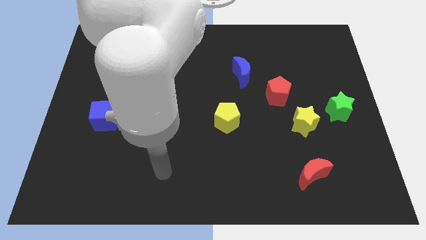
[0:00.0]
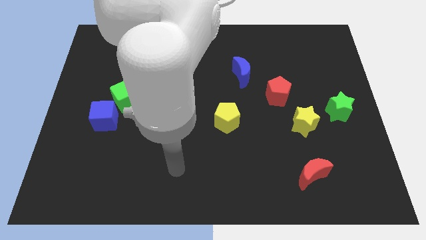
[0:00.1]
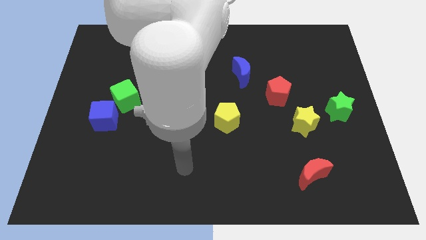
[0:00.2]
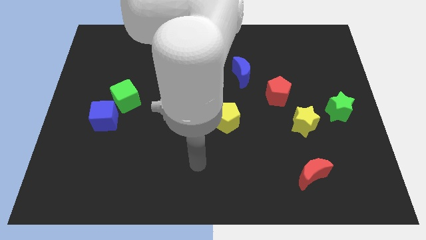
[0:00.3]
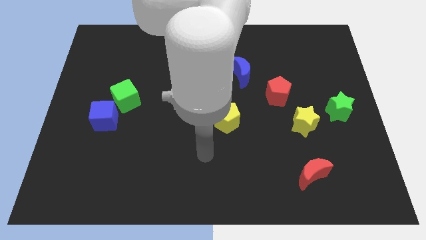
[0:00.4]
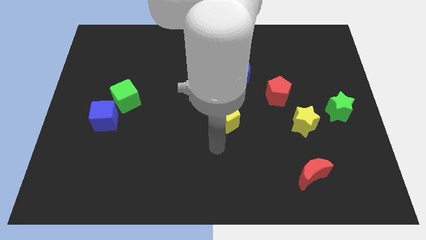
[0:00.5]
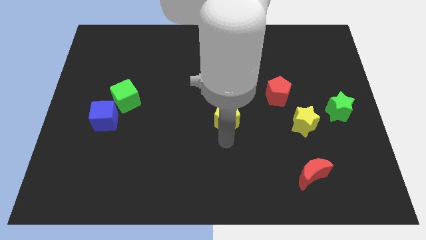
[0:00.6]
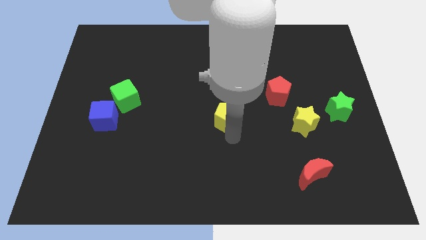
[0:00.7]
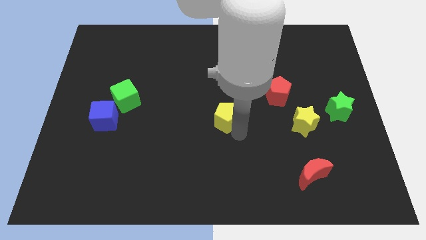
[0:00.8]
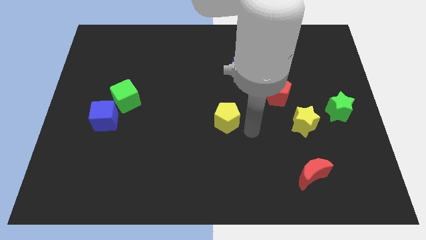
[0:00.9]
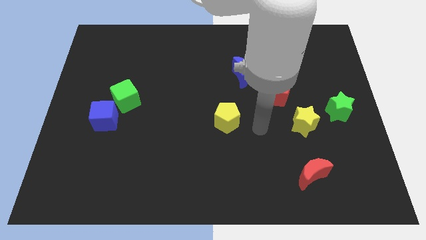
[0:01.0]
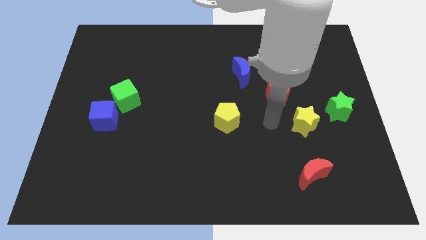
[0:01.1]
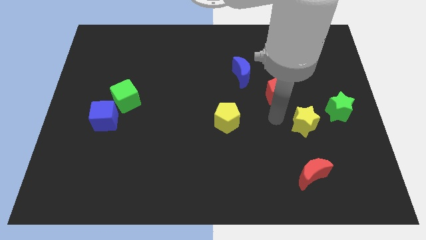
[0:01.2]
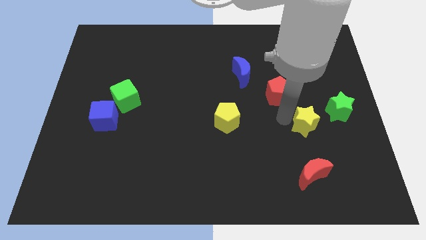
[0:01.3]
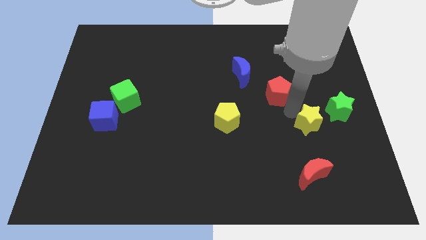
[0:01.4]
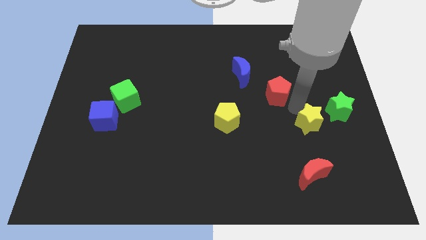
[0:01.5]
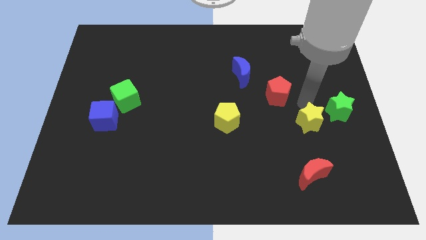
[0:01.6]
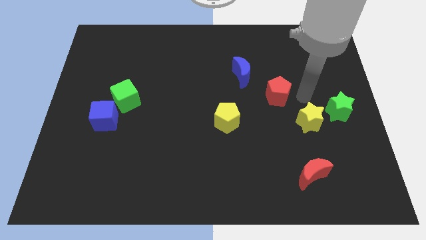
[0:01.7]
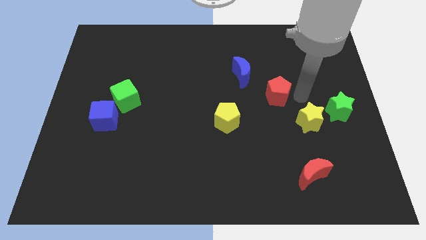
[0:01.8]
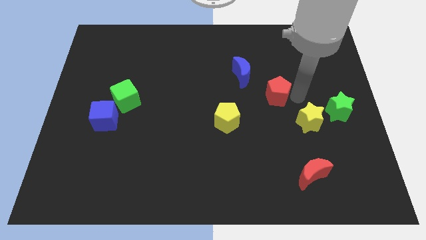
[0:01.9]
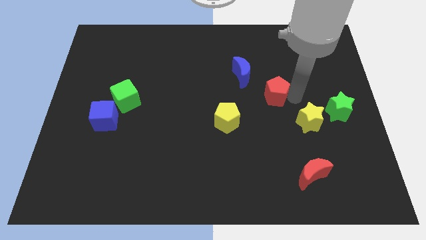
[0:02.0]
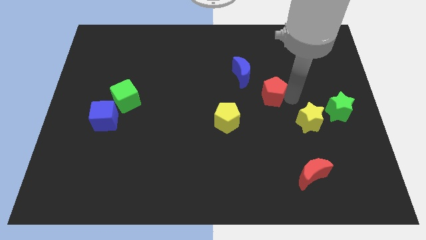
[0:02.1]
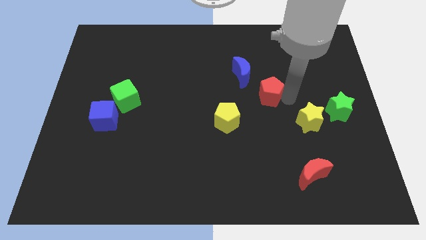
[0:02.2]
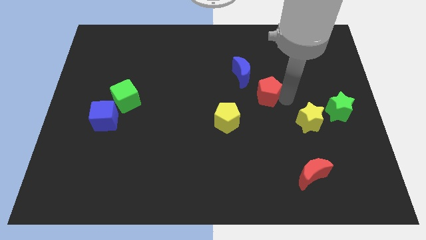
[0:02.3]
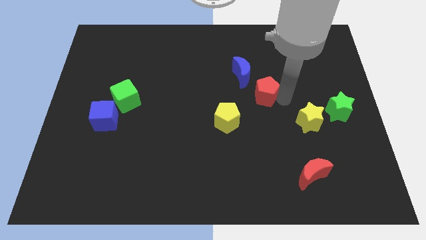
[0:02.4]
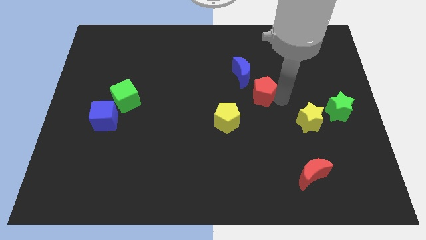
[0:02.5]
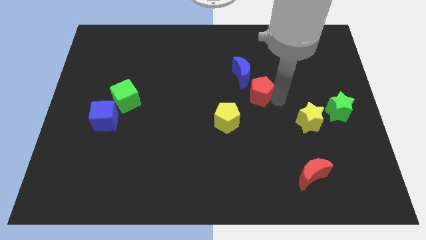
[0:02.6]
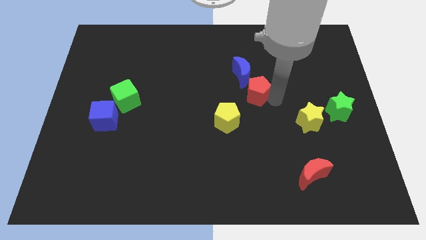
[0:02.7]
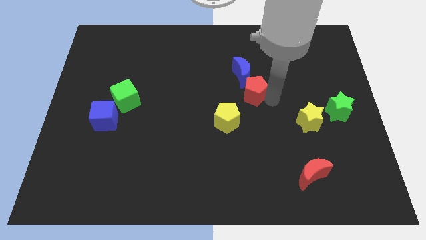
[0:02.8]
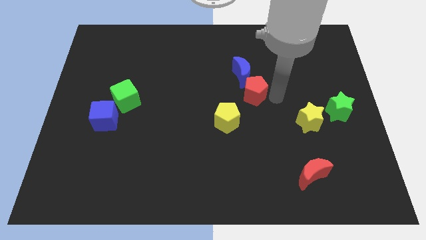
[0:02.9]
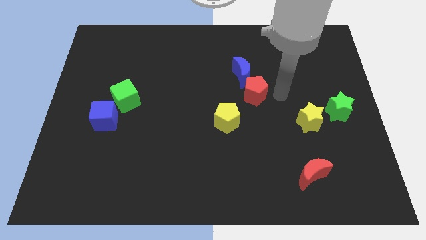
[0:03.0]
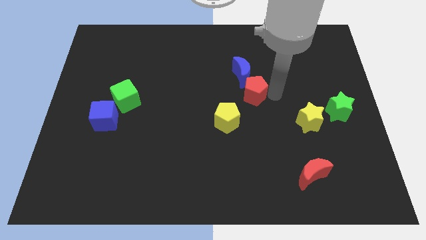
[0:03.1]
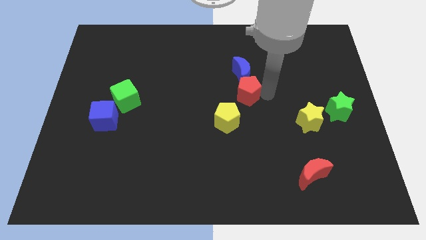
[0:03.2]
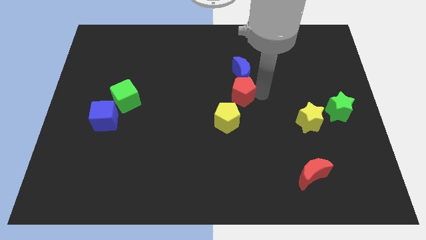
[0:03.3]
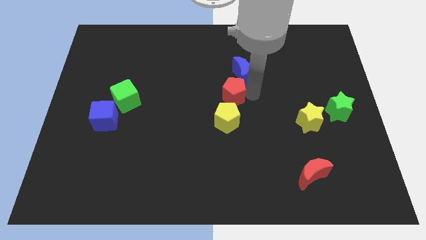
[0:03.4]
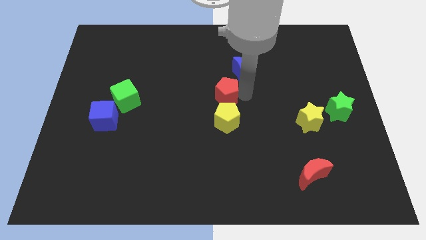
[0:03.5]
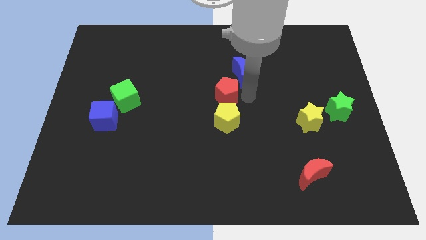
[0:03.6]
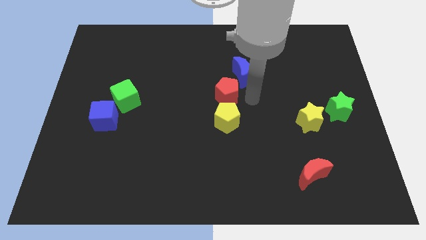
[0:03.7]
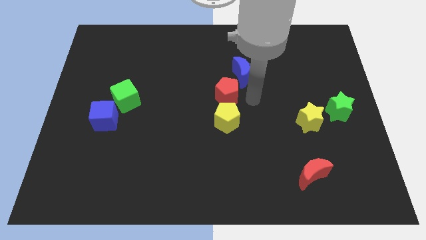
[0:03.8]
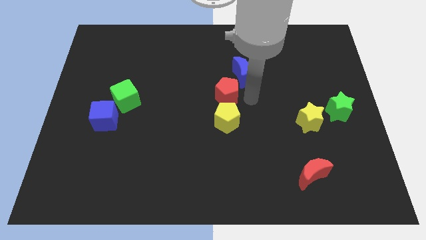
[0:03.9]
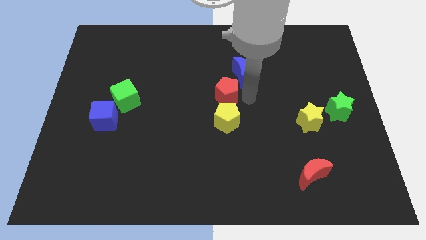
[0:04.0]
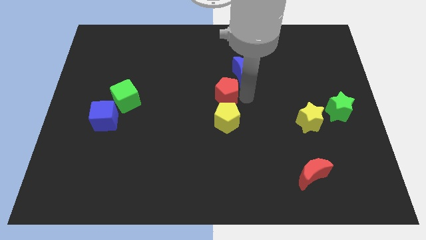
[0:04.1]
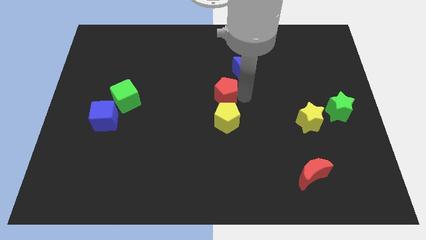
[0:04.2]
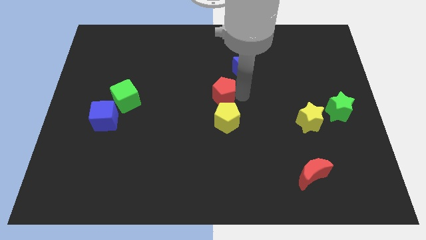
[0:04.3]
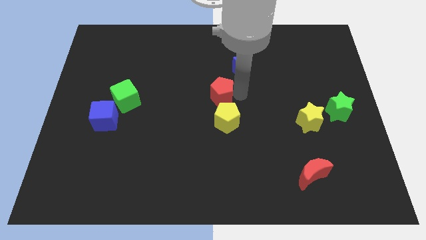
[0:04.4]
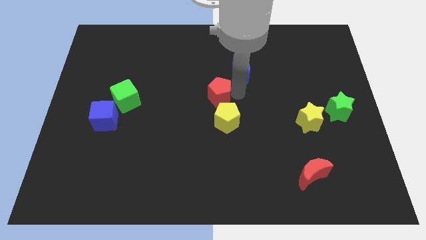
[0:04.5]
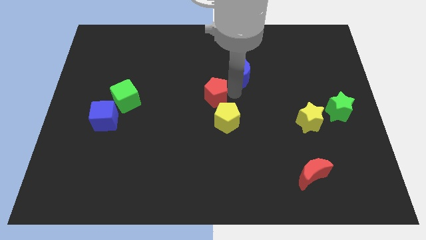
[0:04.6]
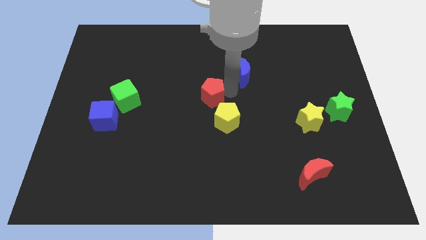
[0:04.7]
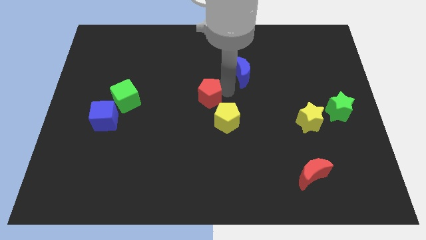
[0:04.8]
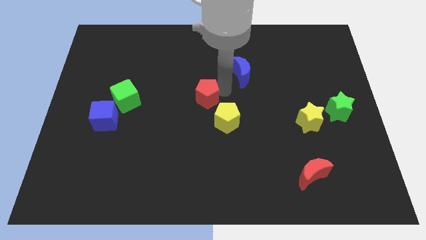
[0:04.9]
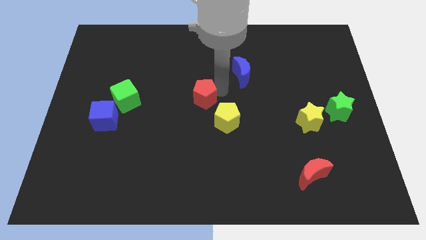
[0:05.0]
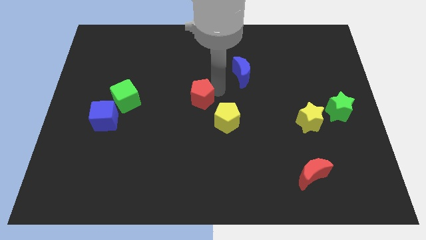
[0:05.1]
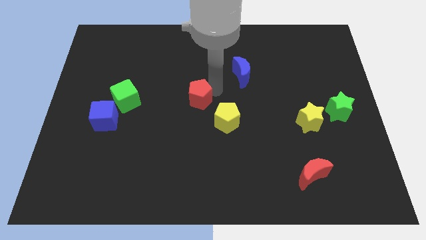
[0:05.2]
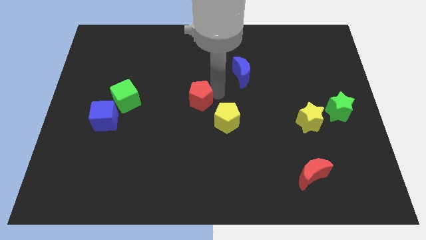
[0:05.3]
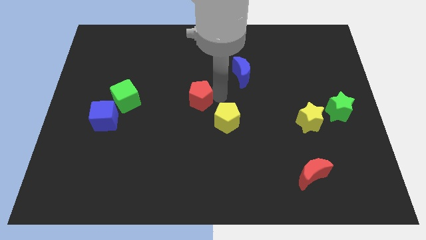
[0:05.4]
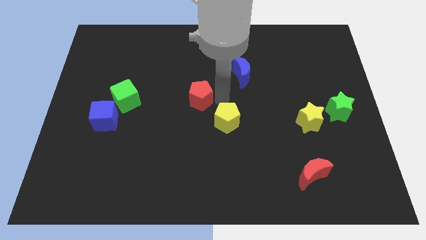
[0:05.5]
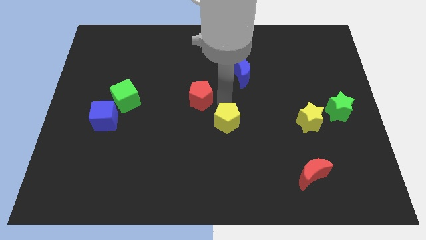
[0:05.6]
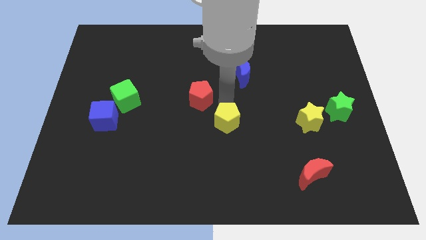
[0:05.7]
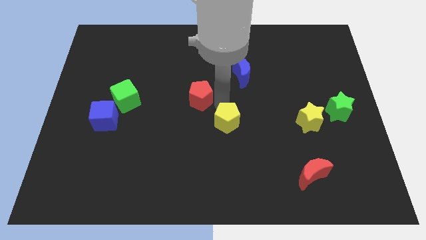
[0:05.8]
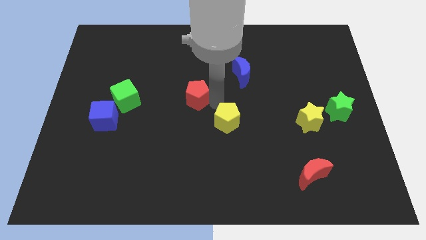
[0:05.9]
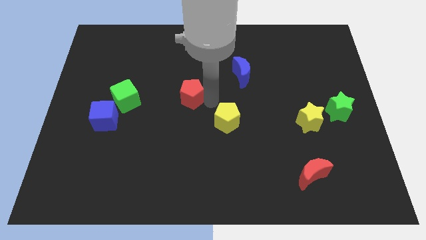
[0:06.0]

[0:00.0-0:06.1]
push the red pentagon to the left

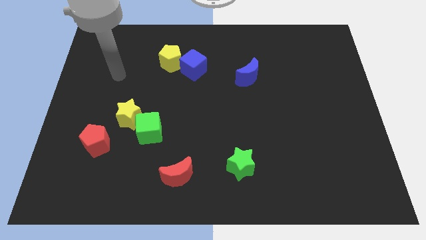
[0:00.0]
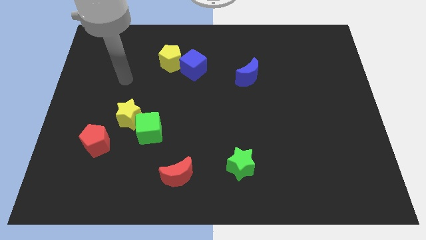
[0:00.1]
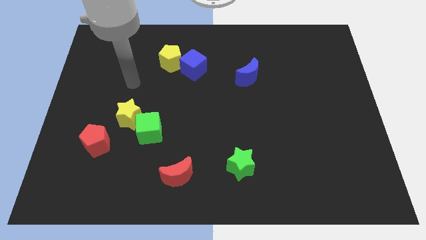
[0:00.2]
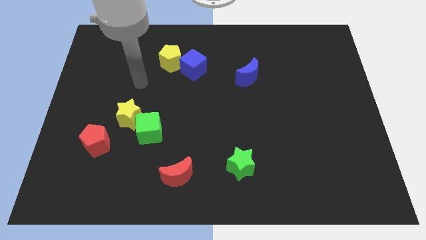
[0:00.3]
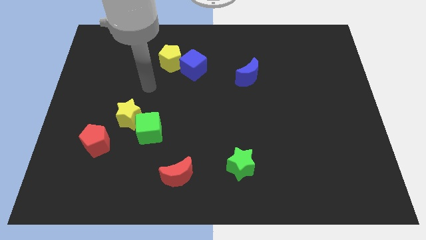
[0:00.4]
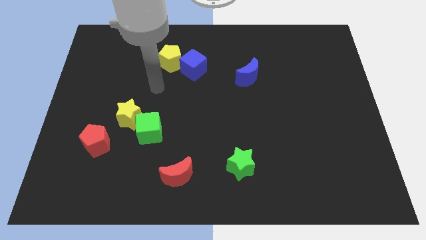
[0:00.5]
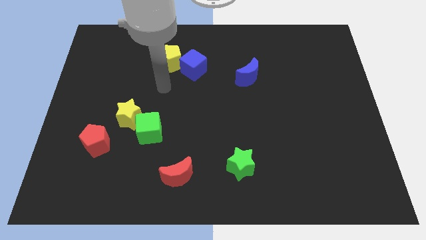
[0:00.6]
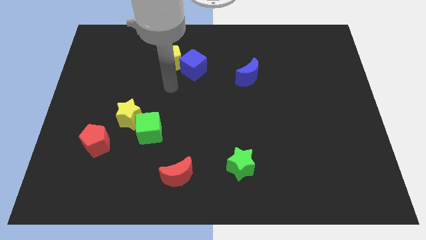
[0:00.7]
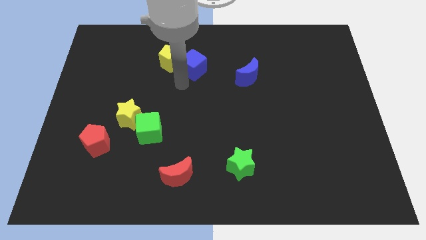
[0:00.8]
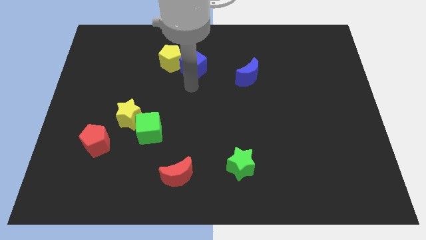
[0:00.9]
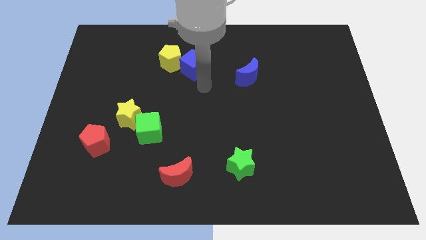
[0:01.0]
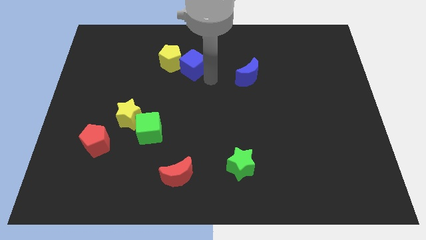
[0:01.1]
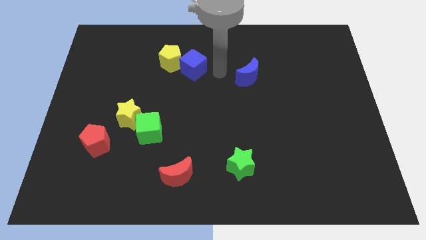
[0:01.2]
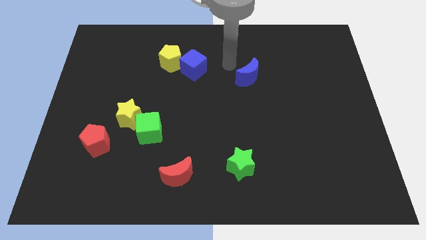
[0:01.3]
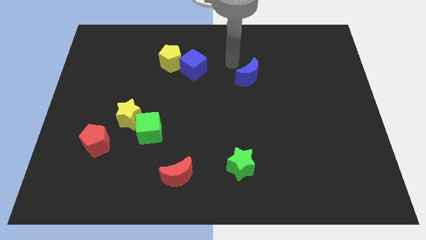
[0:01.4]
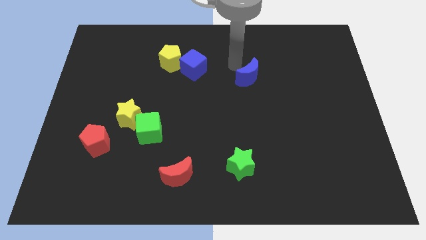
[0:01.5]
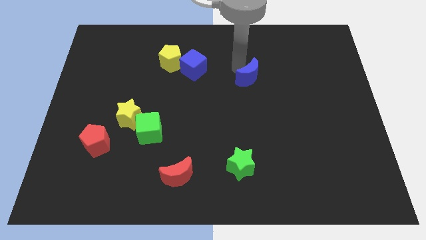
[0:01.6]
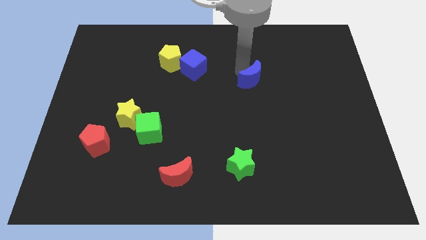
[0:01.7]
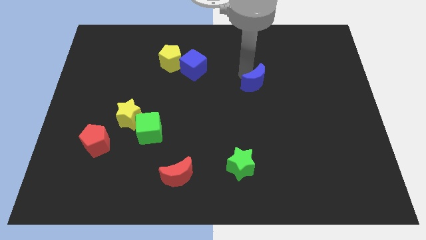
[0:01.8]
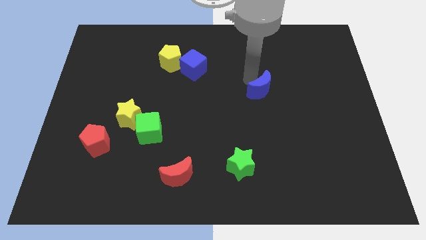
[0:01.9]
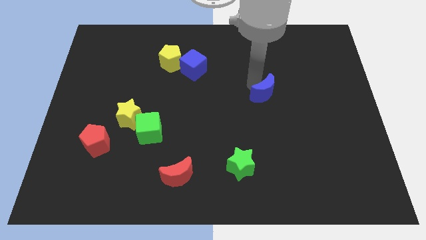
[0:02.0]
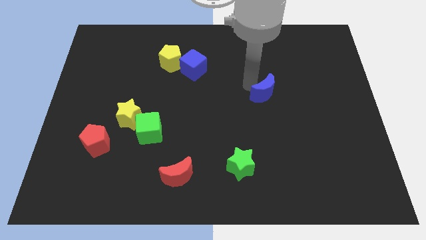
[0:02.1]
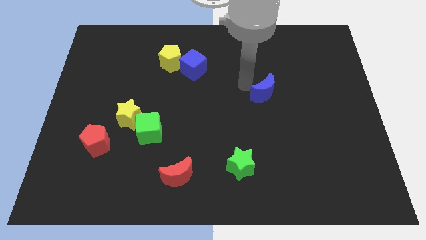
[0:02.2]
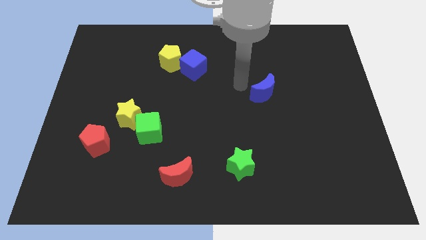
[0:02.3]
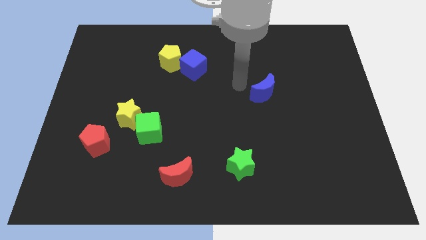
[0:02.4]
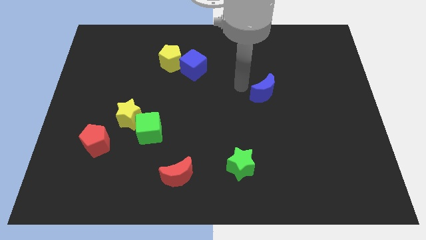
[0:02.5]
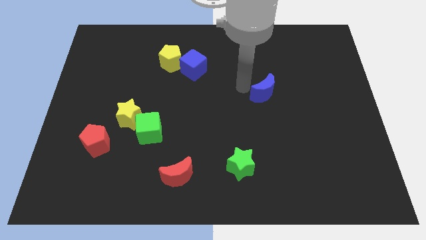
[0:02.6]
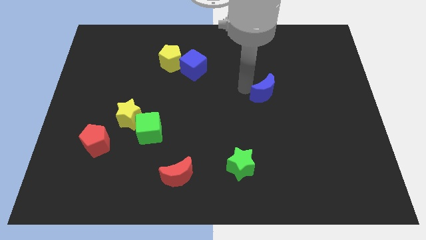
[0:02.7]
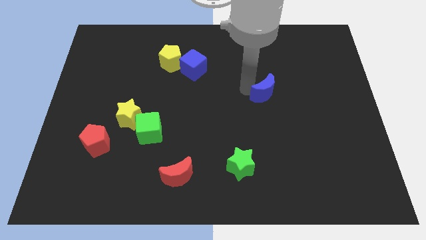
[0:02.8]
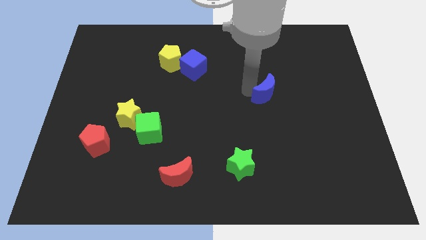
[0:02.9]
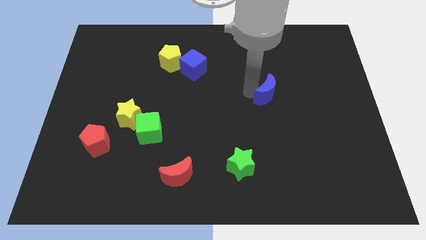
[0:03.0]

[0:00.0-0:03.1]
push the blue moon down and right diagonally a little
